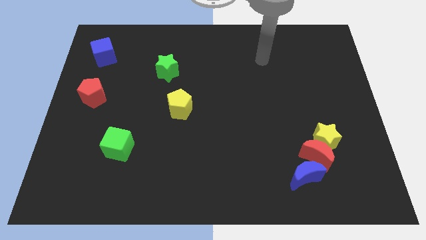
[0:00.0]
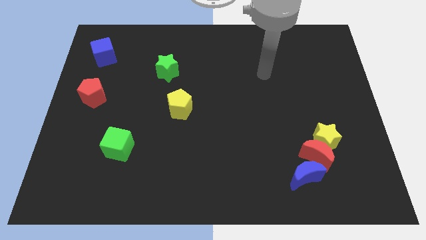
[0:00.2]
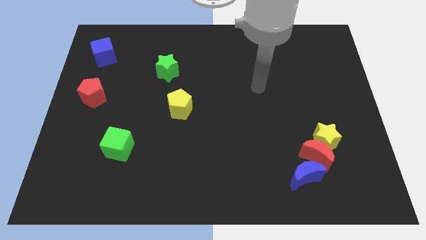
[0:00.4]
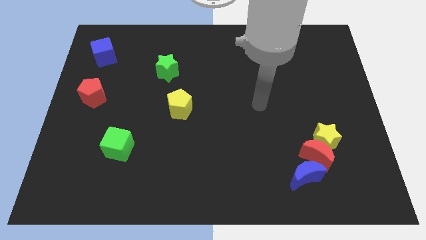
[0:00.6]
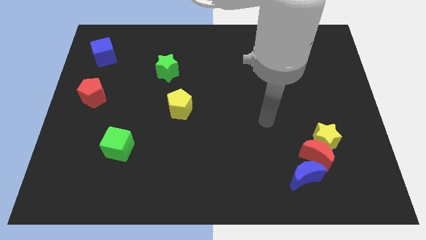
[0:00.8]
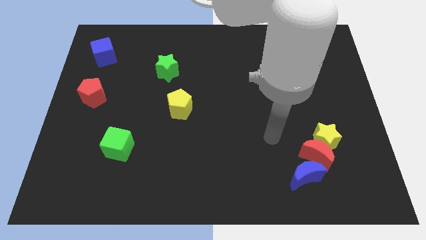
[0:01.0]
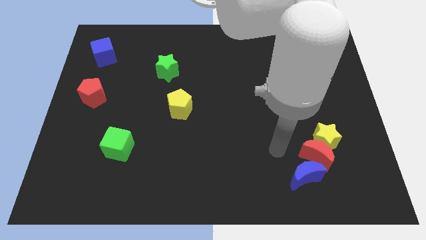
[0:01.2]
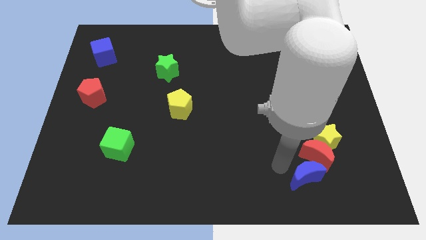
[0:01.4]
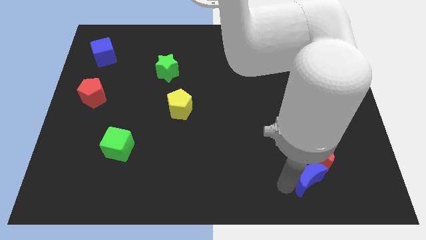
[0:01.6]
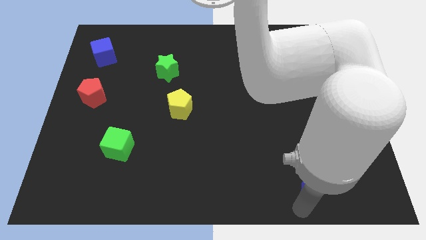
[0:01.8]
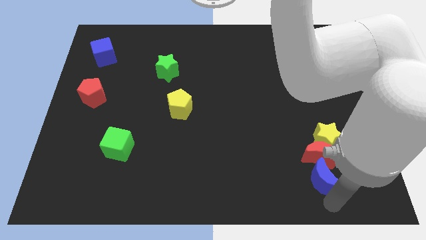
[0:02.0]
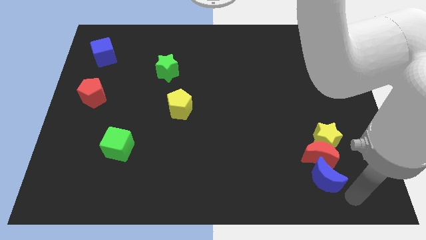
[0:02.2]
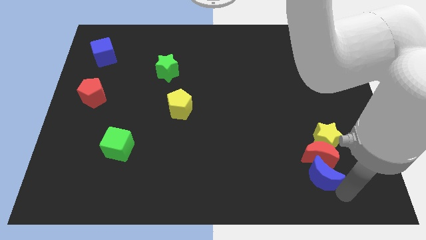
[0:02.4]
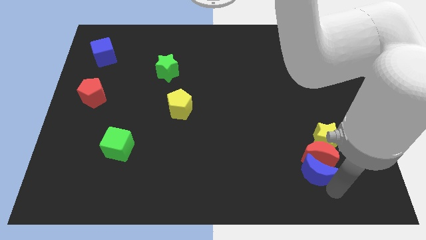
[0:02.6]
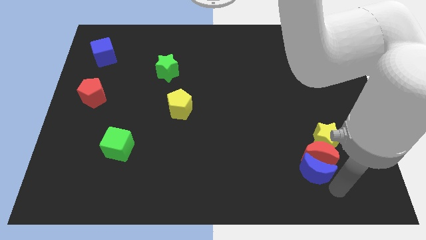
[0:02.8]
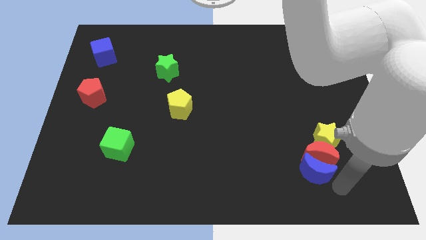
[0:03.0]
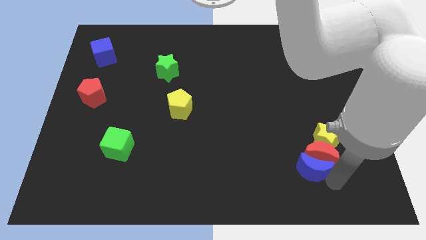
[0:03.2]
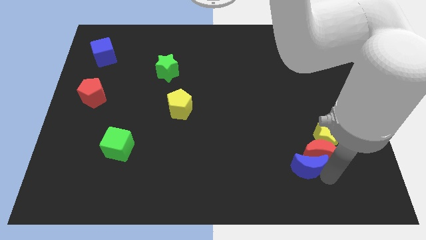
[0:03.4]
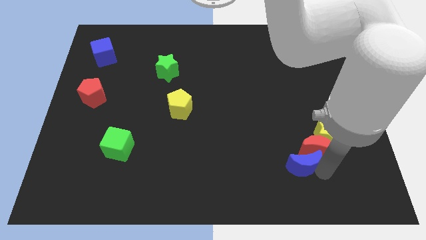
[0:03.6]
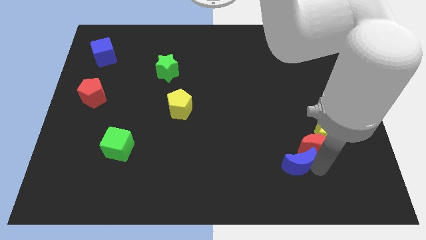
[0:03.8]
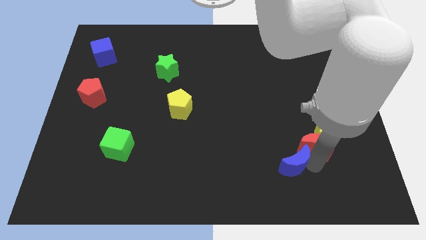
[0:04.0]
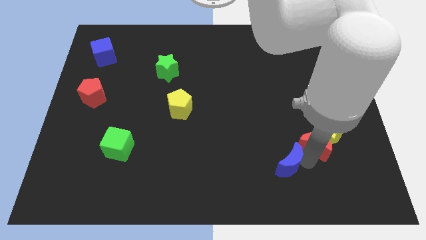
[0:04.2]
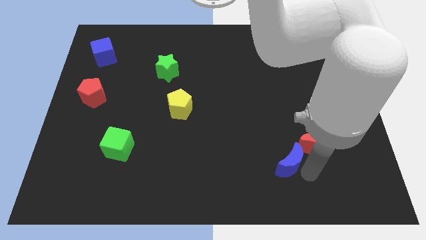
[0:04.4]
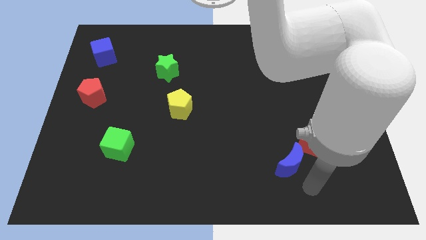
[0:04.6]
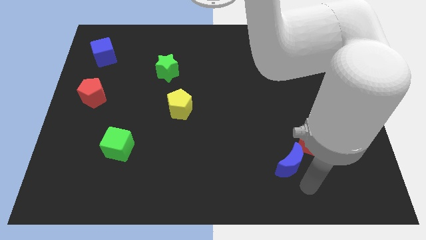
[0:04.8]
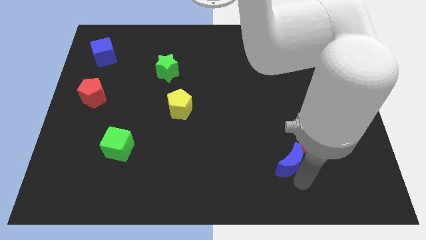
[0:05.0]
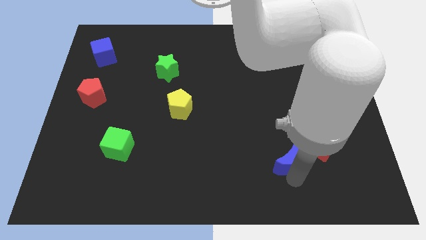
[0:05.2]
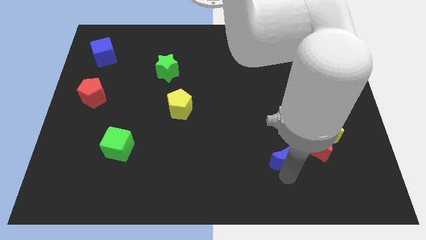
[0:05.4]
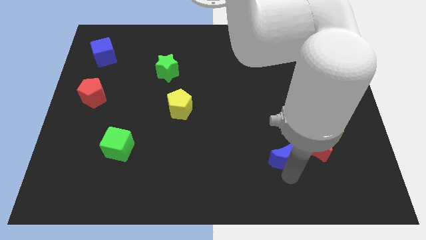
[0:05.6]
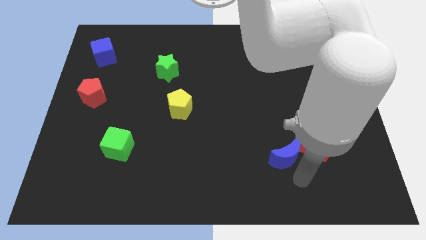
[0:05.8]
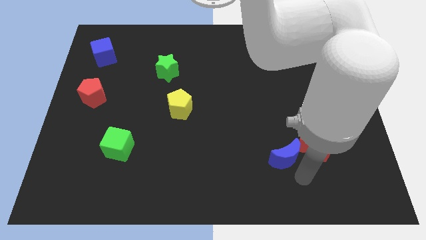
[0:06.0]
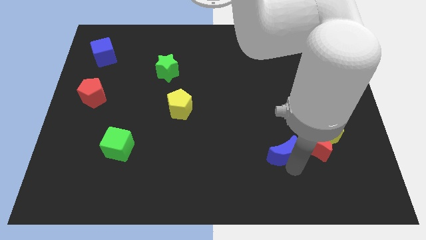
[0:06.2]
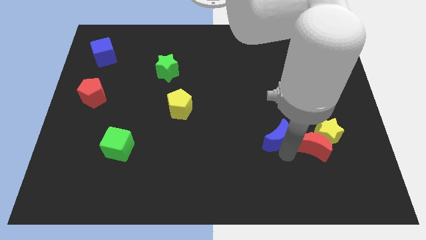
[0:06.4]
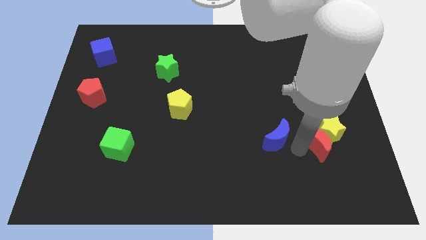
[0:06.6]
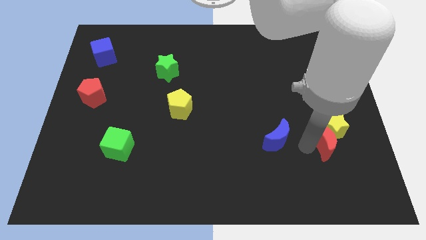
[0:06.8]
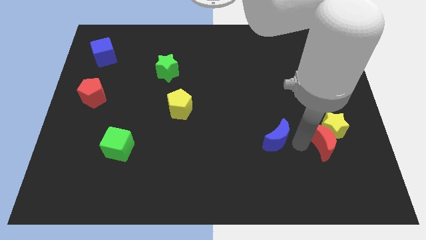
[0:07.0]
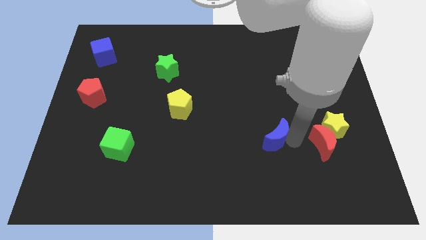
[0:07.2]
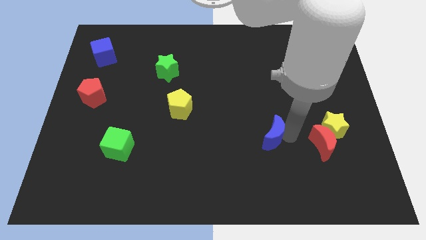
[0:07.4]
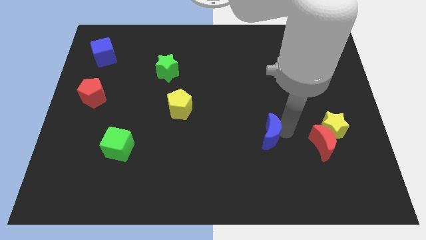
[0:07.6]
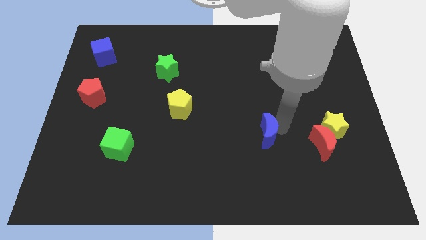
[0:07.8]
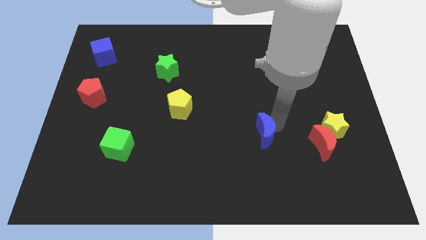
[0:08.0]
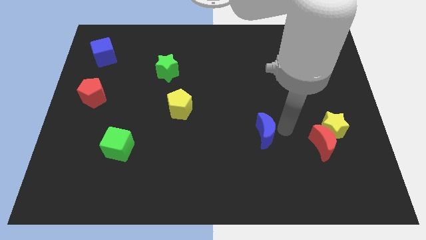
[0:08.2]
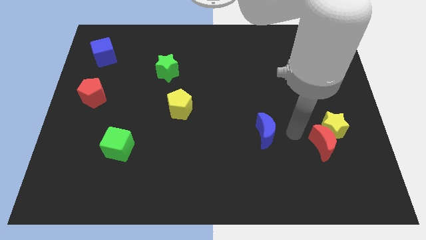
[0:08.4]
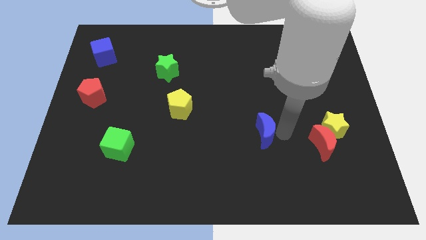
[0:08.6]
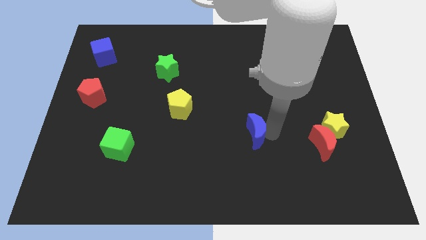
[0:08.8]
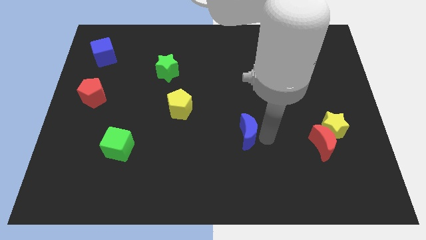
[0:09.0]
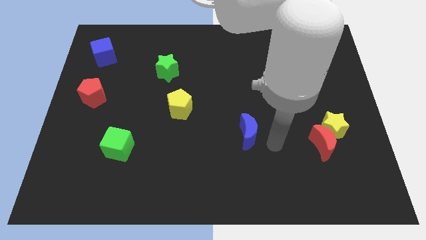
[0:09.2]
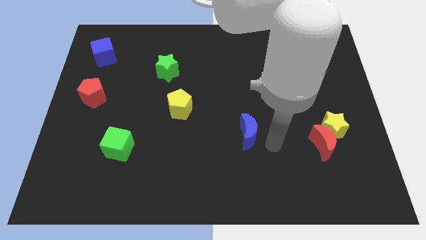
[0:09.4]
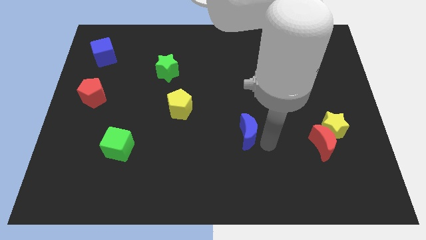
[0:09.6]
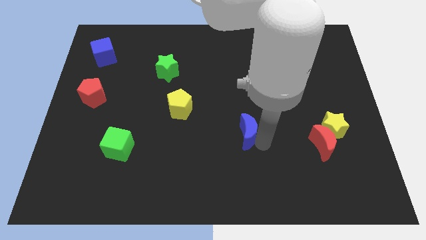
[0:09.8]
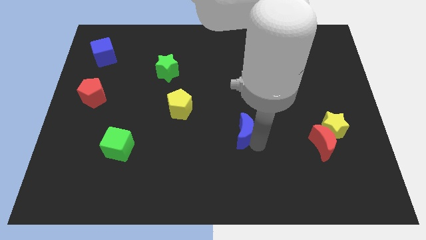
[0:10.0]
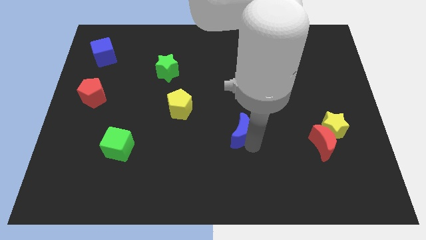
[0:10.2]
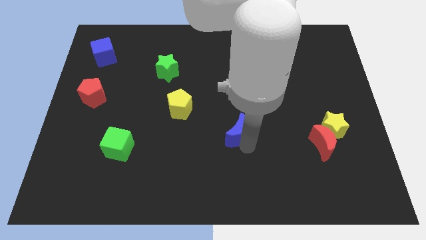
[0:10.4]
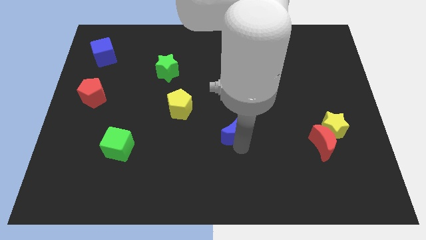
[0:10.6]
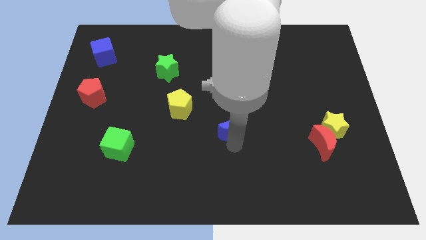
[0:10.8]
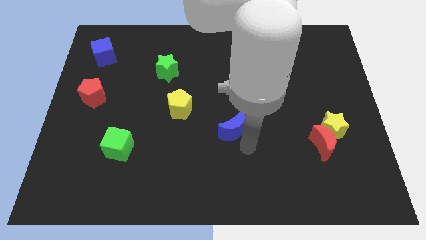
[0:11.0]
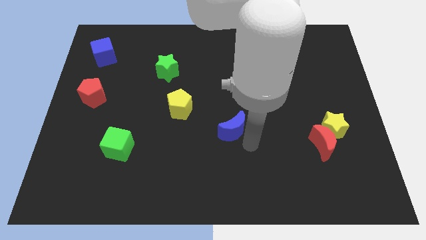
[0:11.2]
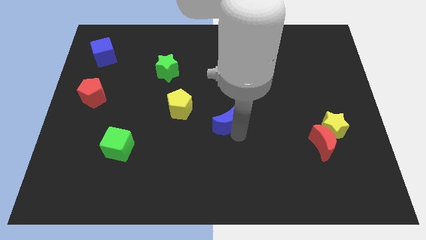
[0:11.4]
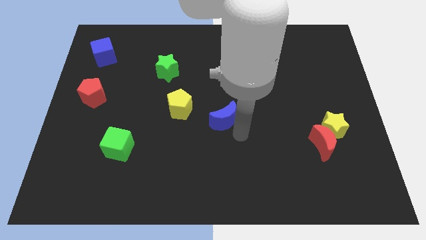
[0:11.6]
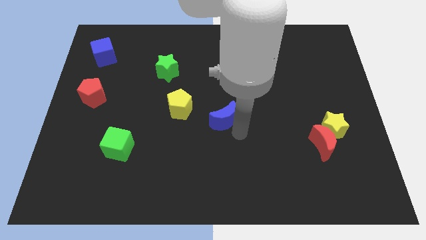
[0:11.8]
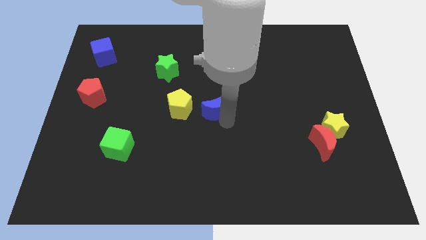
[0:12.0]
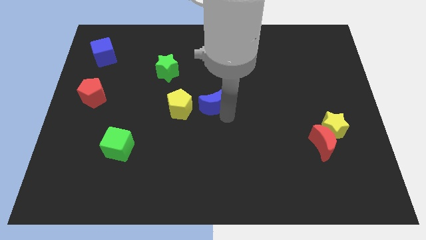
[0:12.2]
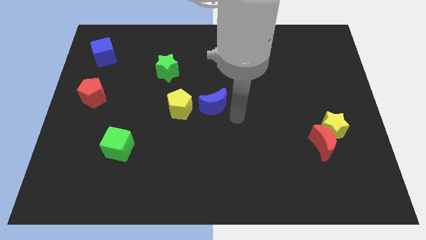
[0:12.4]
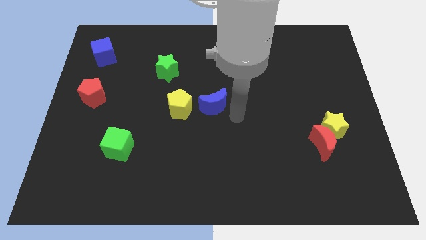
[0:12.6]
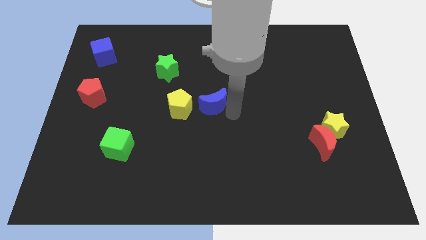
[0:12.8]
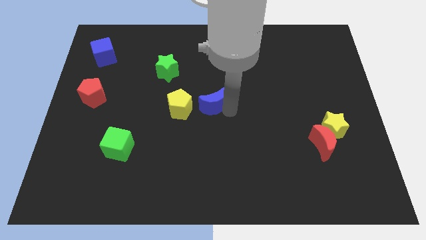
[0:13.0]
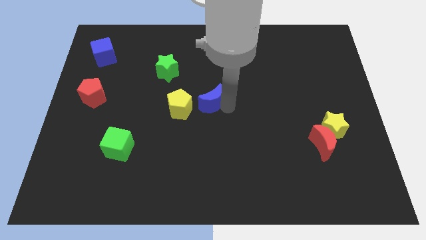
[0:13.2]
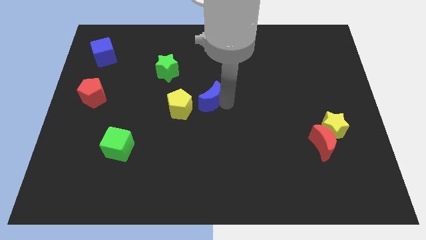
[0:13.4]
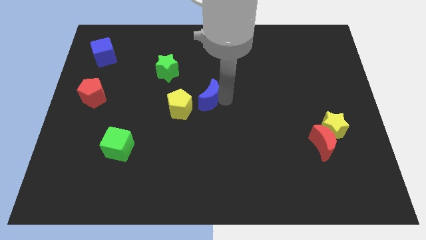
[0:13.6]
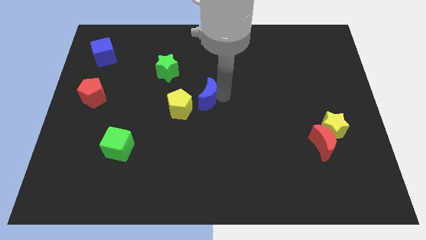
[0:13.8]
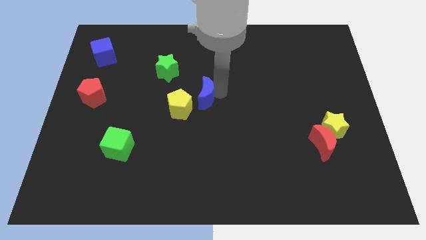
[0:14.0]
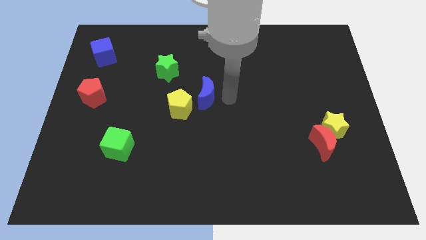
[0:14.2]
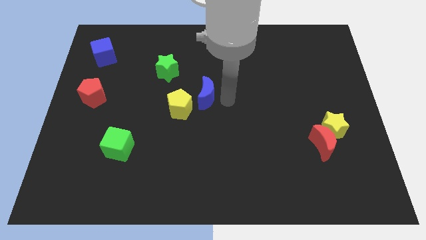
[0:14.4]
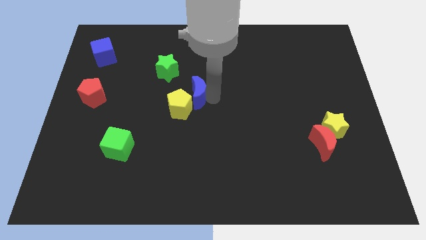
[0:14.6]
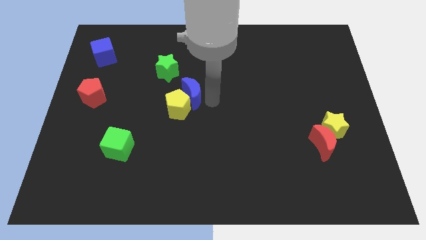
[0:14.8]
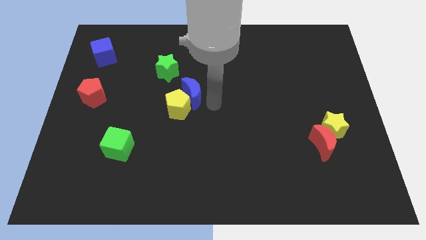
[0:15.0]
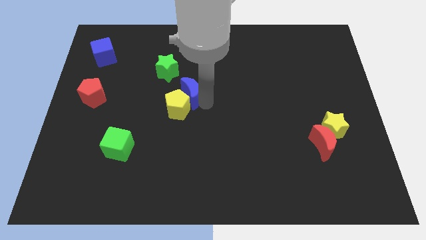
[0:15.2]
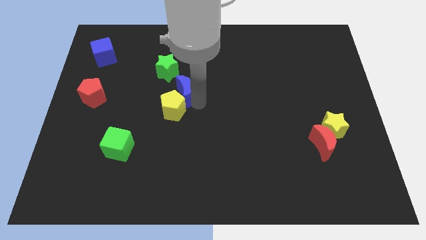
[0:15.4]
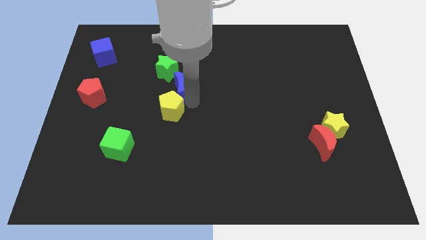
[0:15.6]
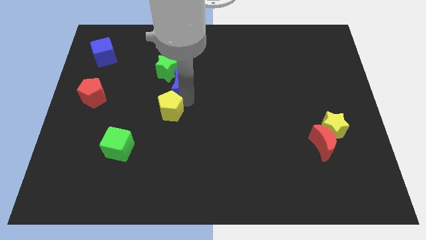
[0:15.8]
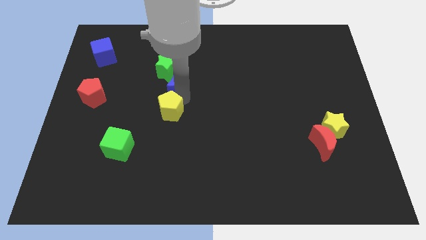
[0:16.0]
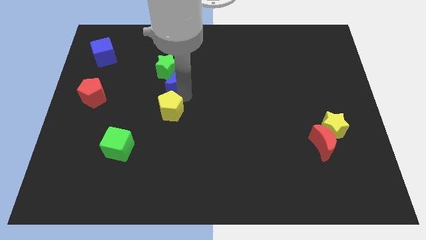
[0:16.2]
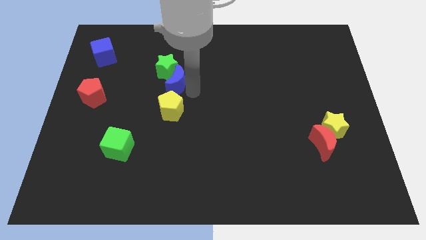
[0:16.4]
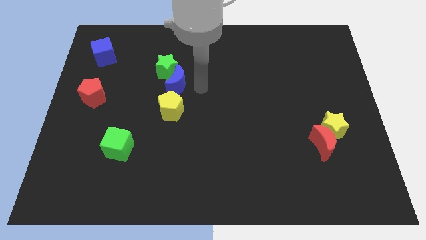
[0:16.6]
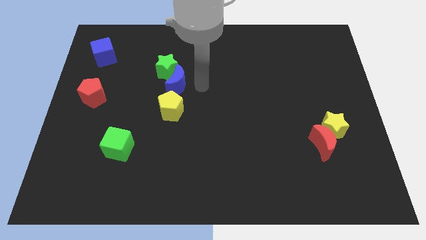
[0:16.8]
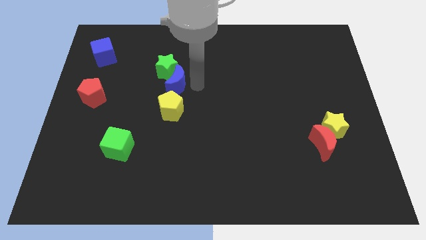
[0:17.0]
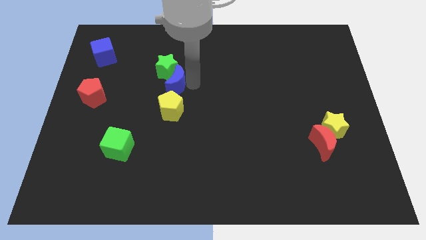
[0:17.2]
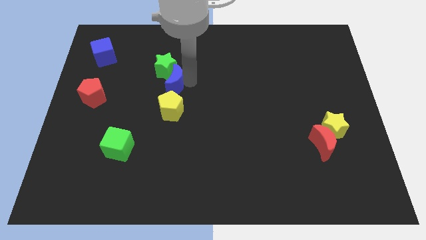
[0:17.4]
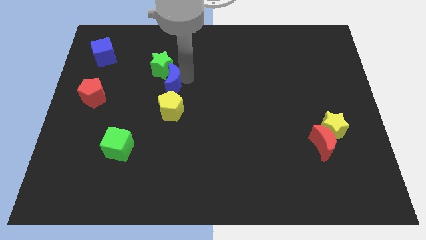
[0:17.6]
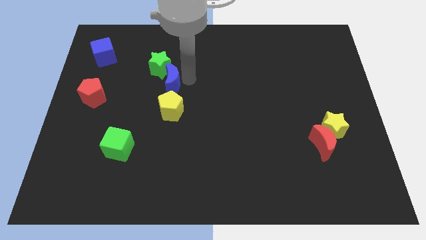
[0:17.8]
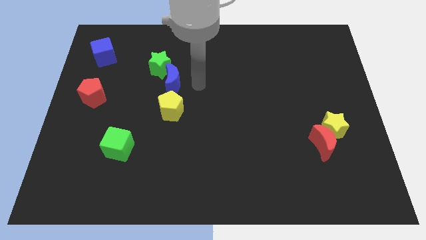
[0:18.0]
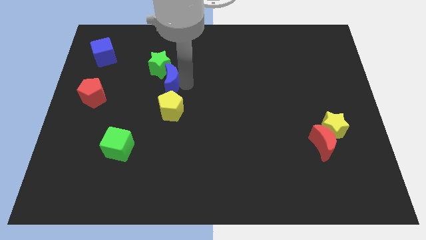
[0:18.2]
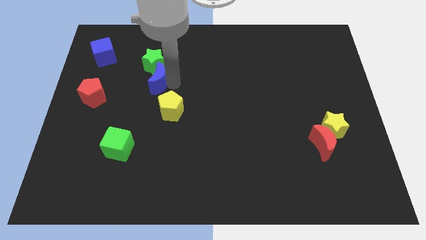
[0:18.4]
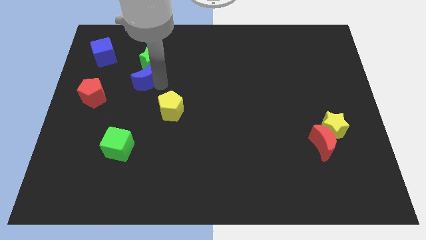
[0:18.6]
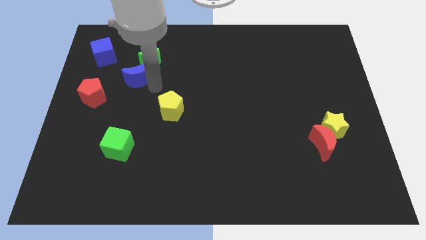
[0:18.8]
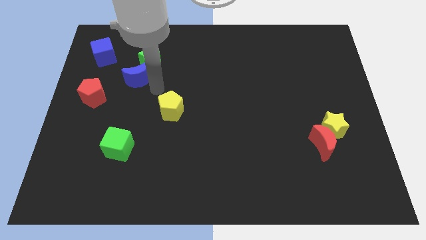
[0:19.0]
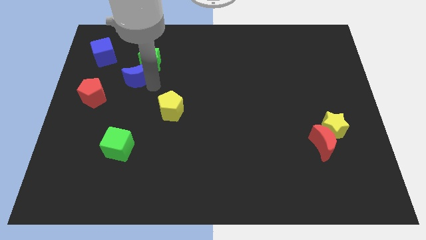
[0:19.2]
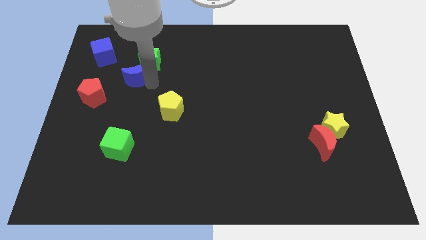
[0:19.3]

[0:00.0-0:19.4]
put the blue moon to the bottom right of the blue cube
